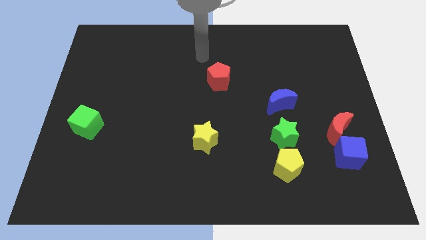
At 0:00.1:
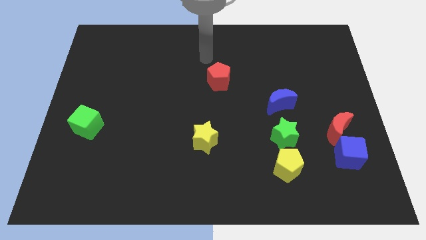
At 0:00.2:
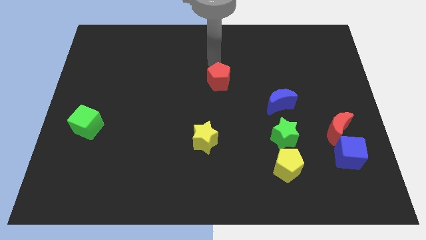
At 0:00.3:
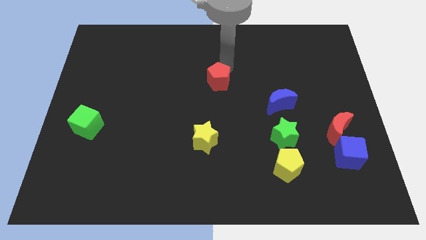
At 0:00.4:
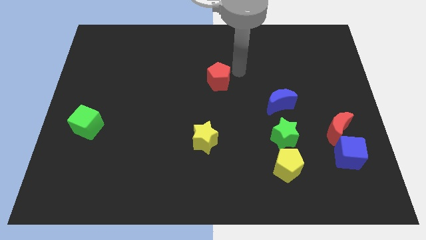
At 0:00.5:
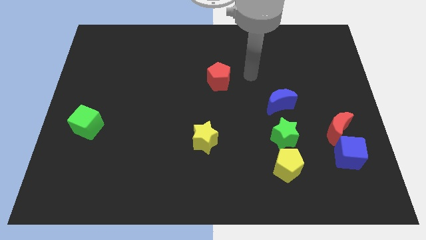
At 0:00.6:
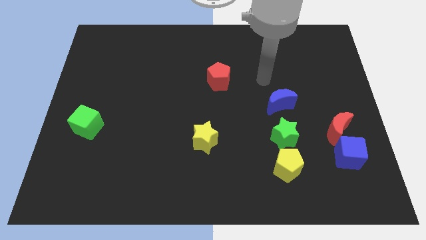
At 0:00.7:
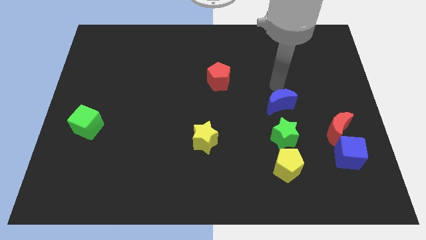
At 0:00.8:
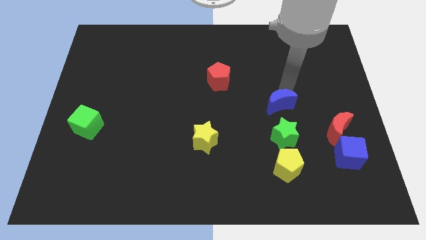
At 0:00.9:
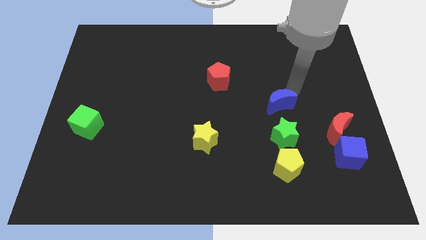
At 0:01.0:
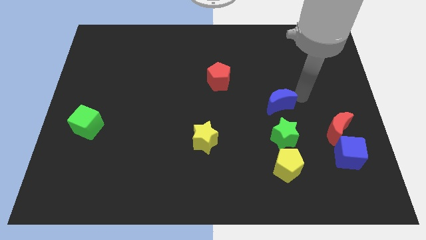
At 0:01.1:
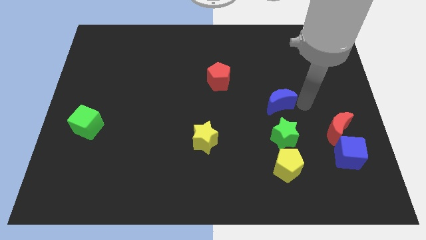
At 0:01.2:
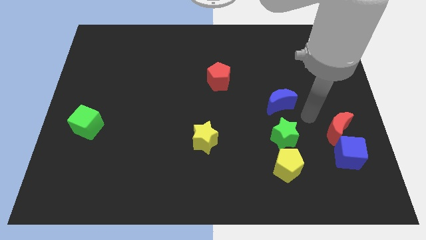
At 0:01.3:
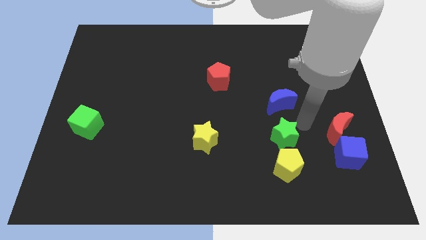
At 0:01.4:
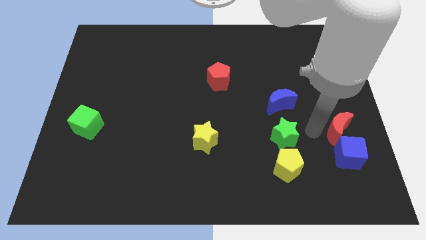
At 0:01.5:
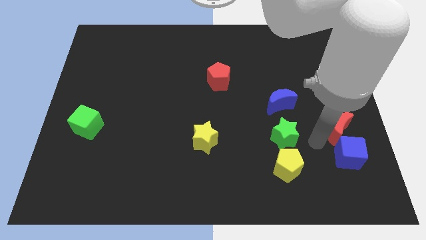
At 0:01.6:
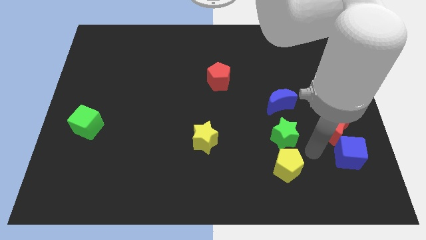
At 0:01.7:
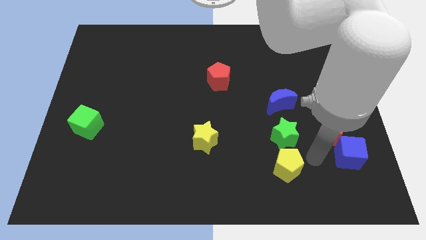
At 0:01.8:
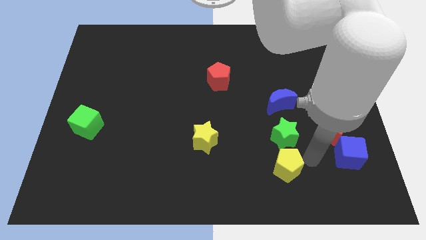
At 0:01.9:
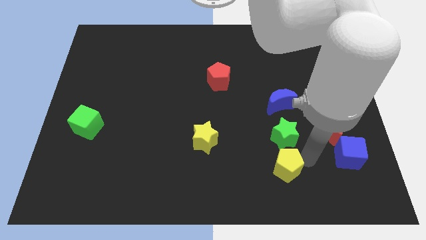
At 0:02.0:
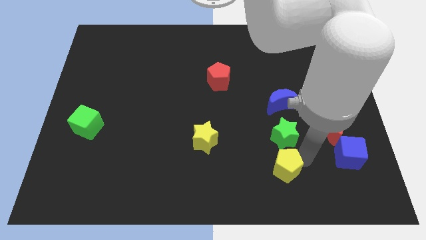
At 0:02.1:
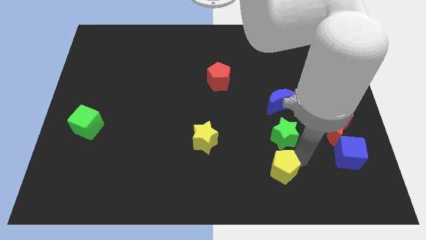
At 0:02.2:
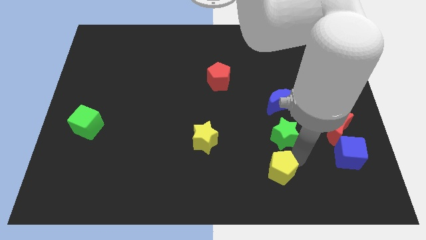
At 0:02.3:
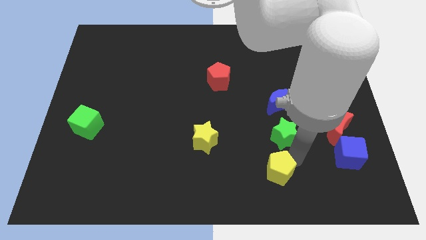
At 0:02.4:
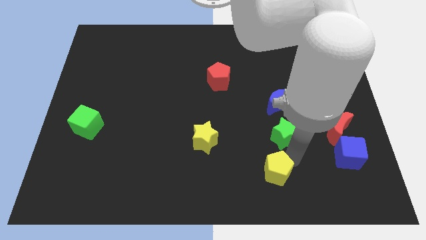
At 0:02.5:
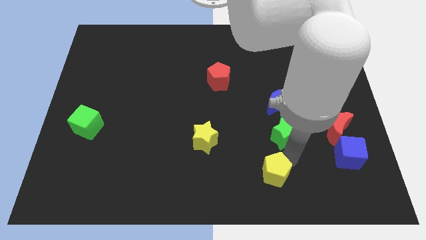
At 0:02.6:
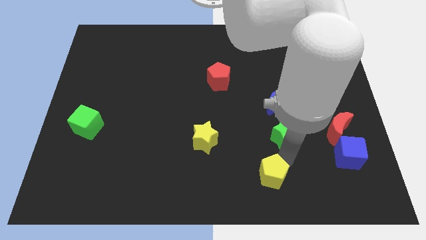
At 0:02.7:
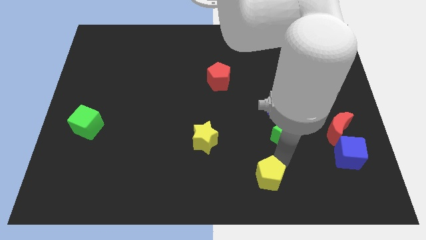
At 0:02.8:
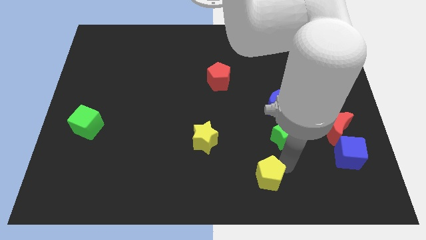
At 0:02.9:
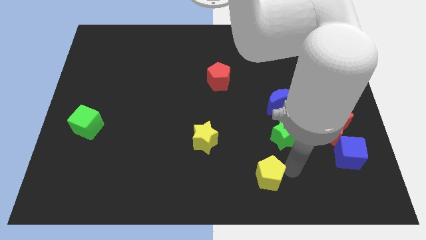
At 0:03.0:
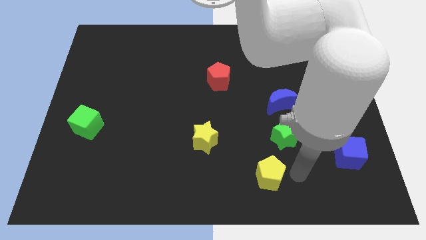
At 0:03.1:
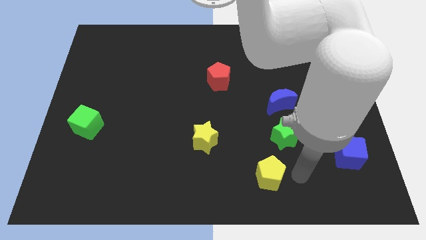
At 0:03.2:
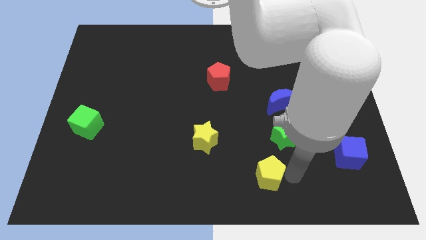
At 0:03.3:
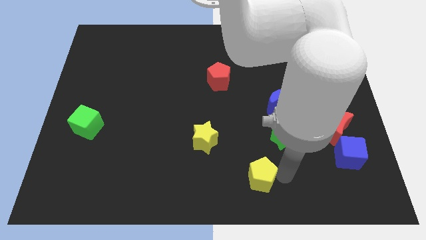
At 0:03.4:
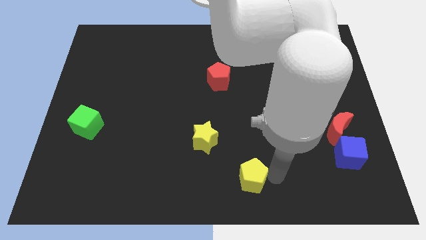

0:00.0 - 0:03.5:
slide the yellow pentagon a bit to the left

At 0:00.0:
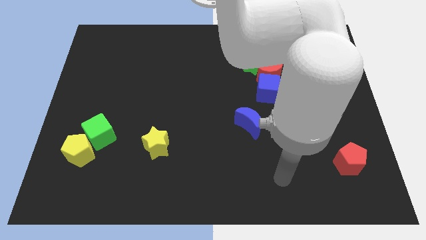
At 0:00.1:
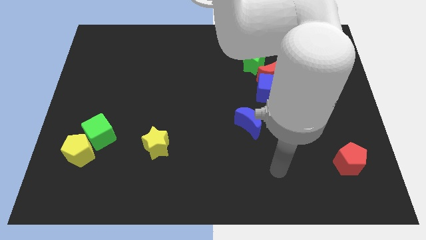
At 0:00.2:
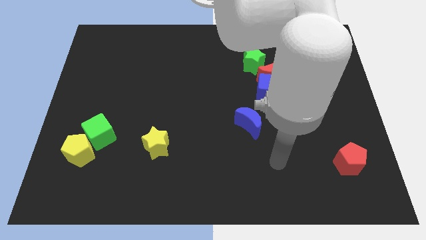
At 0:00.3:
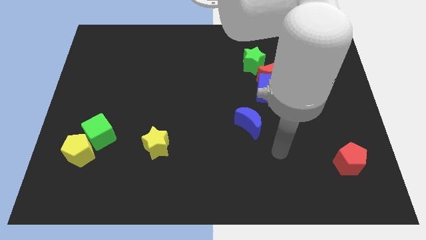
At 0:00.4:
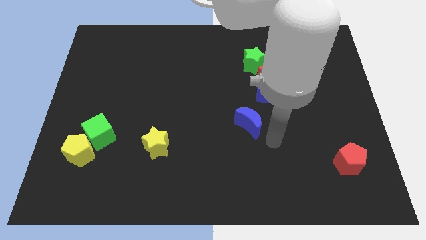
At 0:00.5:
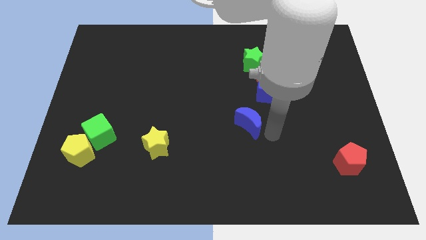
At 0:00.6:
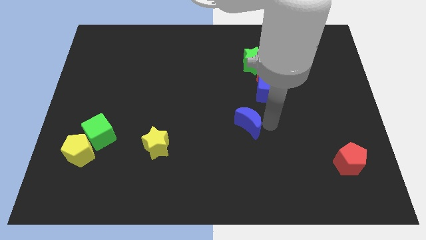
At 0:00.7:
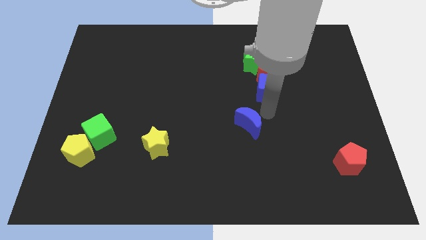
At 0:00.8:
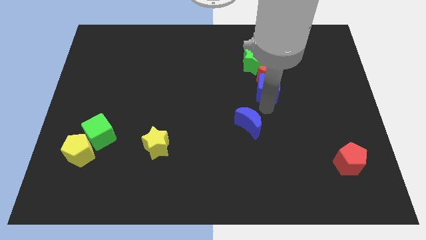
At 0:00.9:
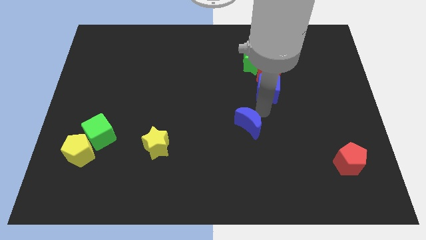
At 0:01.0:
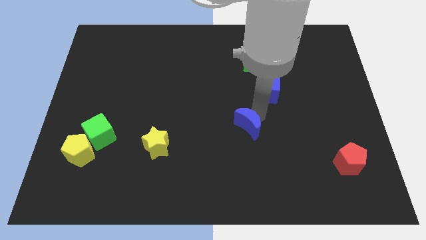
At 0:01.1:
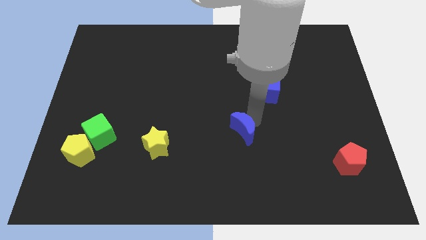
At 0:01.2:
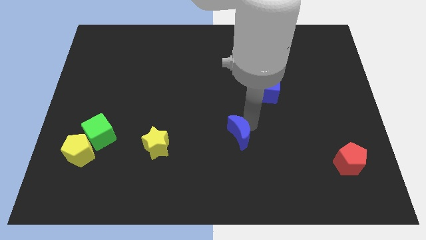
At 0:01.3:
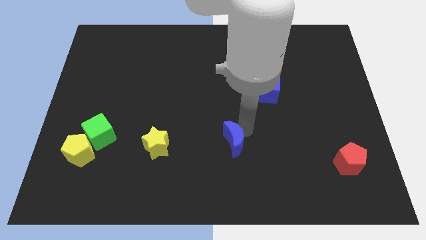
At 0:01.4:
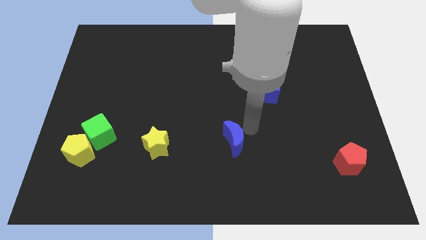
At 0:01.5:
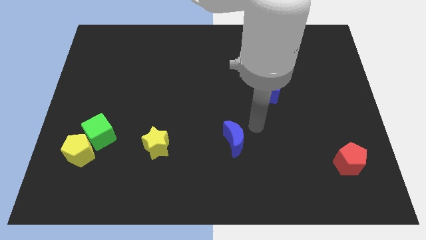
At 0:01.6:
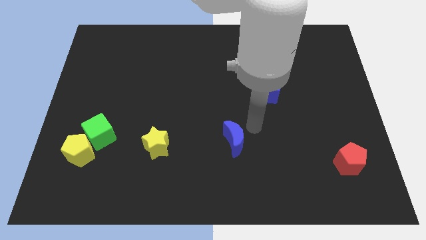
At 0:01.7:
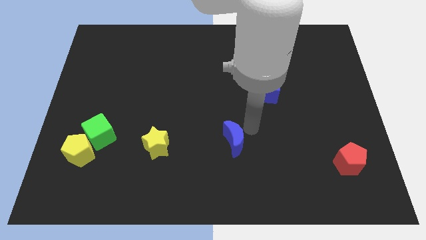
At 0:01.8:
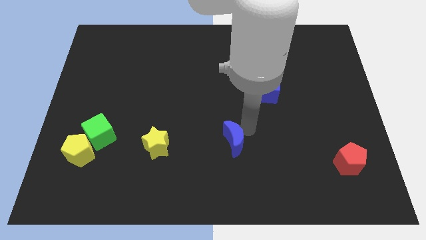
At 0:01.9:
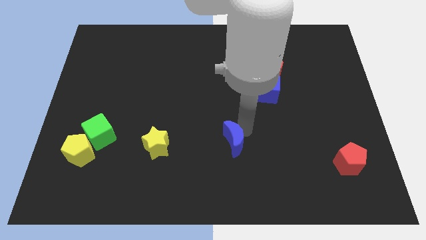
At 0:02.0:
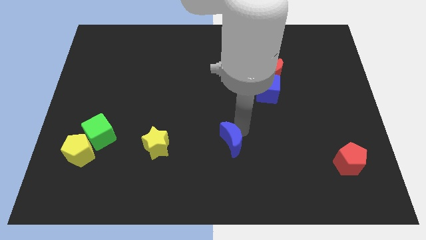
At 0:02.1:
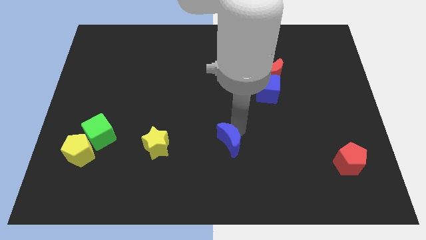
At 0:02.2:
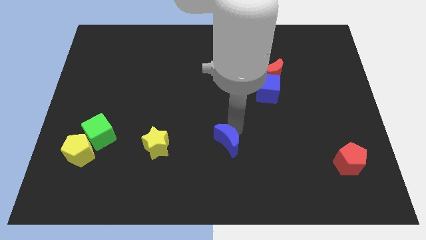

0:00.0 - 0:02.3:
slide the blue moon downwards and to the left diagonally slightly

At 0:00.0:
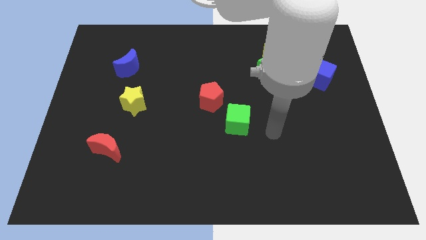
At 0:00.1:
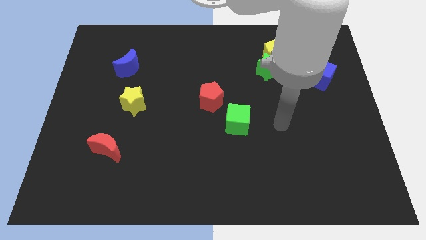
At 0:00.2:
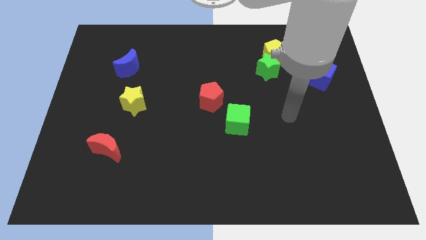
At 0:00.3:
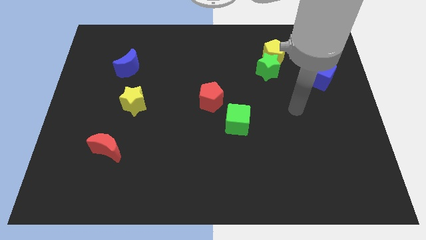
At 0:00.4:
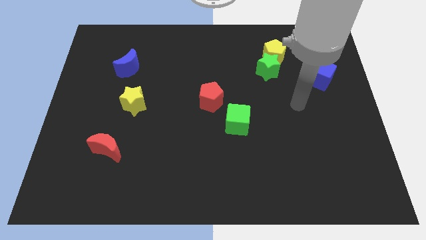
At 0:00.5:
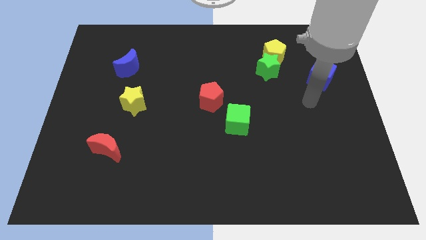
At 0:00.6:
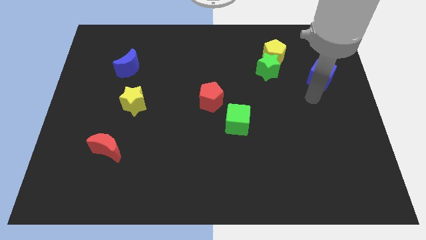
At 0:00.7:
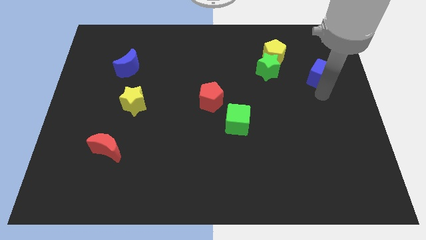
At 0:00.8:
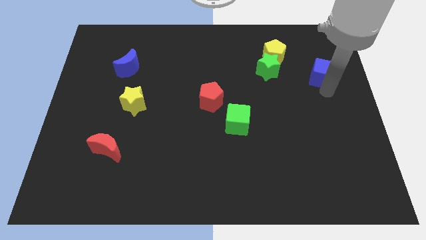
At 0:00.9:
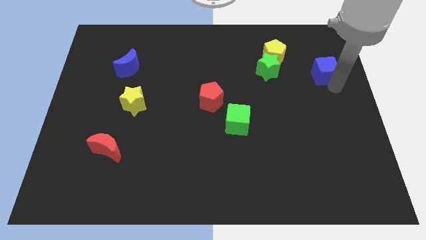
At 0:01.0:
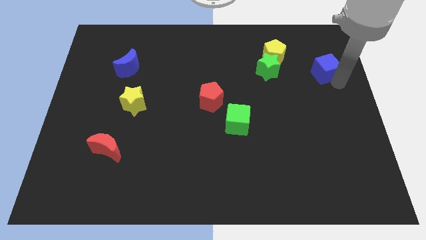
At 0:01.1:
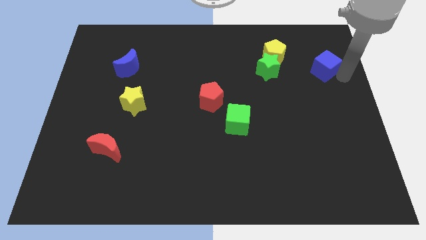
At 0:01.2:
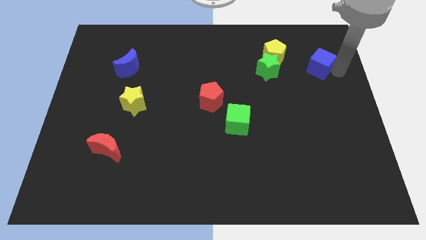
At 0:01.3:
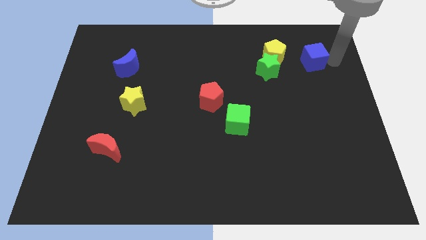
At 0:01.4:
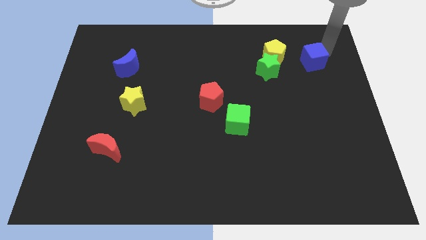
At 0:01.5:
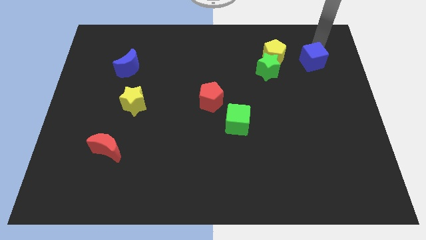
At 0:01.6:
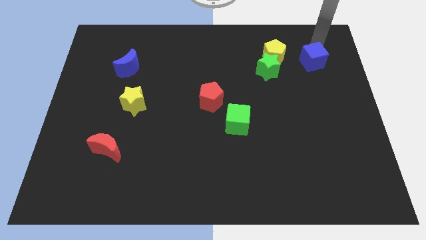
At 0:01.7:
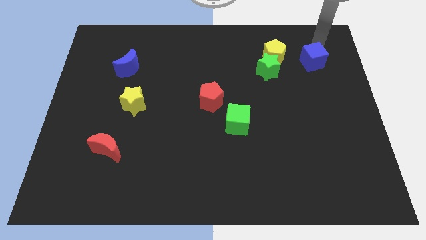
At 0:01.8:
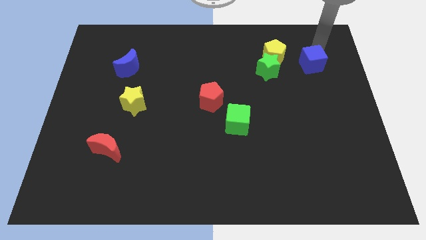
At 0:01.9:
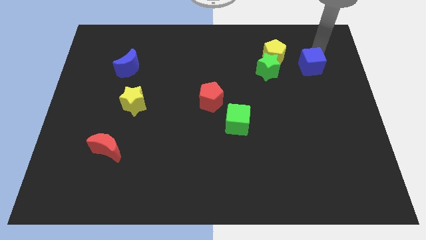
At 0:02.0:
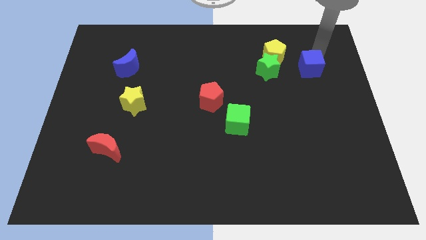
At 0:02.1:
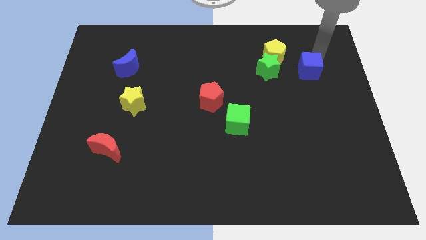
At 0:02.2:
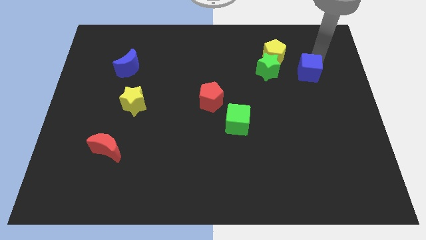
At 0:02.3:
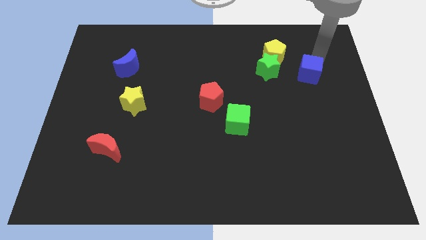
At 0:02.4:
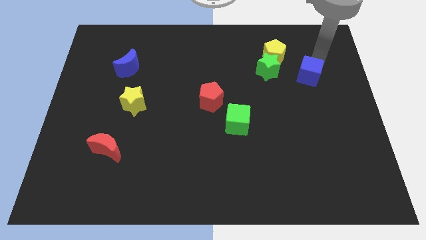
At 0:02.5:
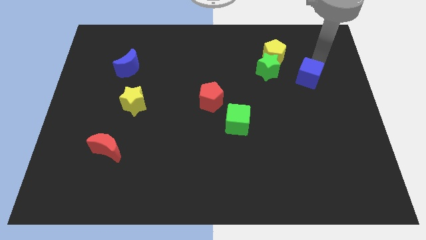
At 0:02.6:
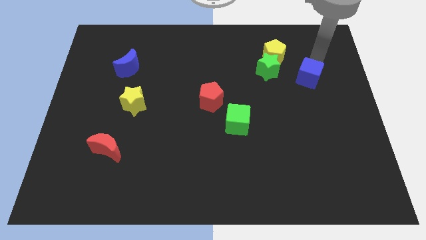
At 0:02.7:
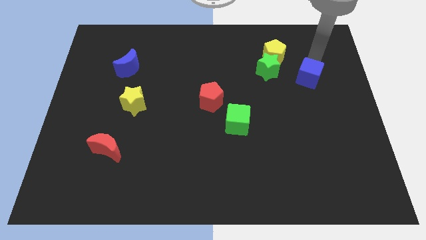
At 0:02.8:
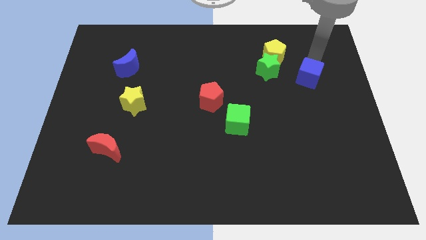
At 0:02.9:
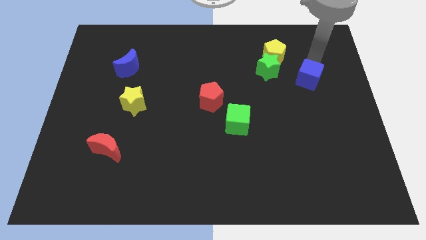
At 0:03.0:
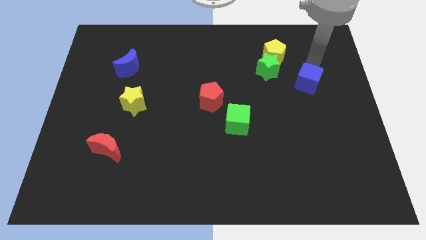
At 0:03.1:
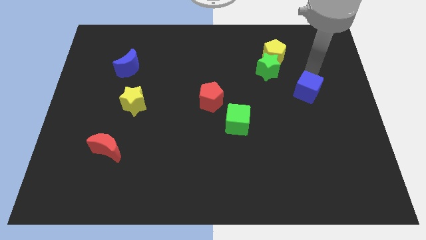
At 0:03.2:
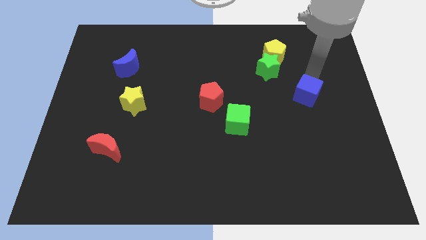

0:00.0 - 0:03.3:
move the blue cube somewhat down and left
